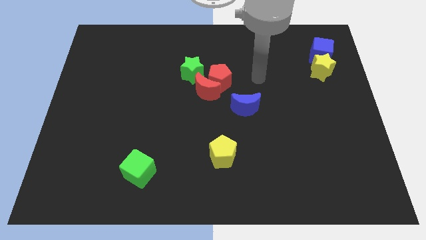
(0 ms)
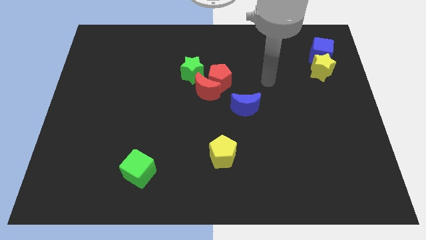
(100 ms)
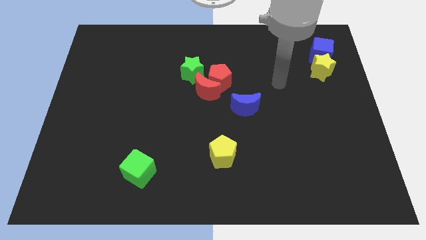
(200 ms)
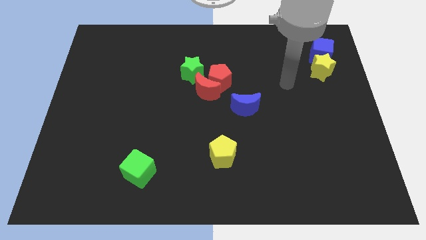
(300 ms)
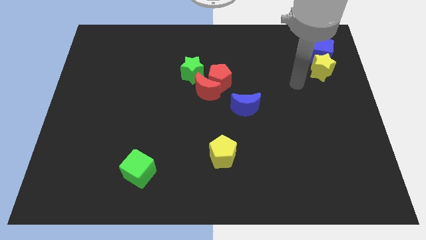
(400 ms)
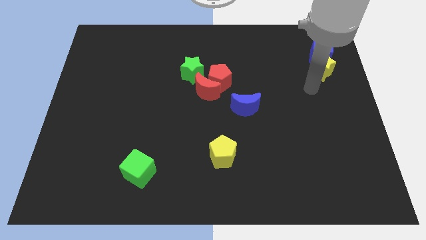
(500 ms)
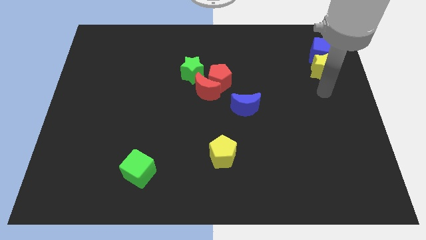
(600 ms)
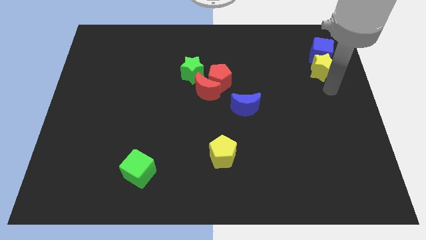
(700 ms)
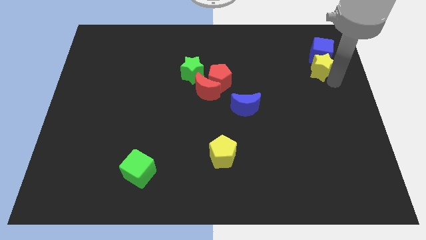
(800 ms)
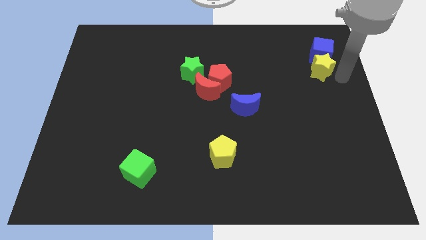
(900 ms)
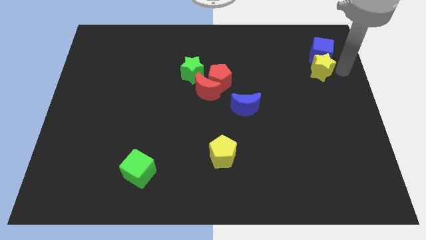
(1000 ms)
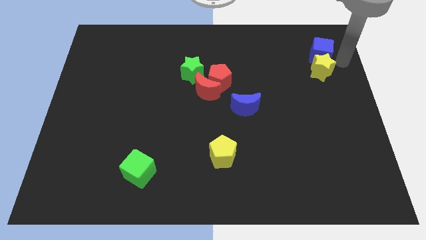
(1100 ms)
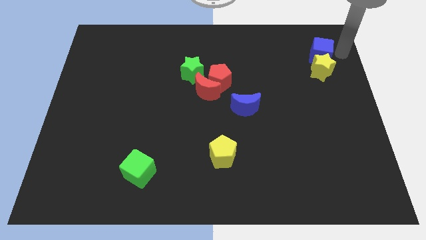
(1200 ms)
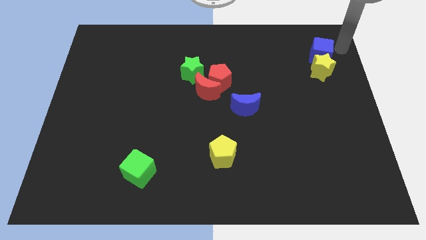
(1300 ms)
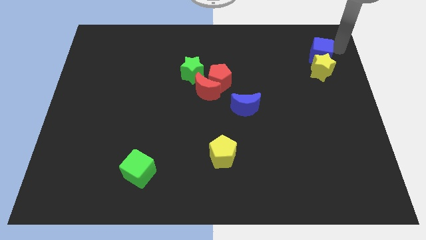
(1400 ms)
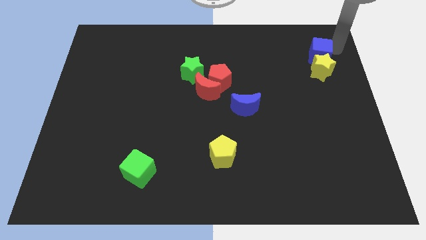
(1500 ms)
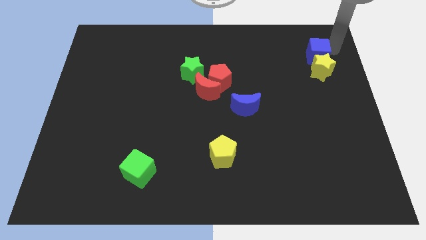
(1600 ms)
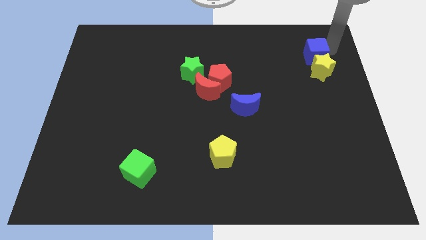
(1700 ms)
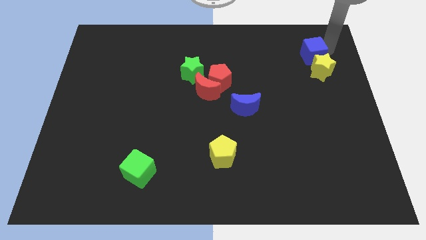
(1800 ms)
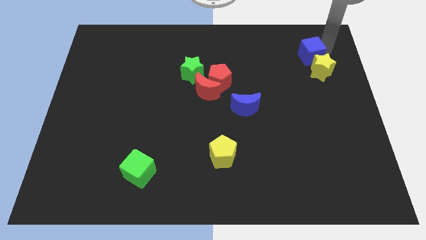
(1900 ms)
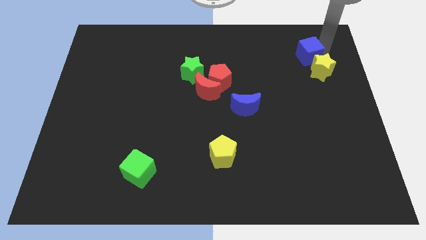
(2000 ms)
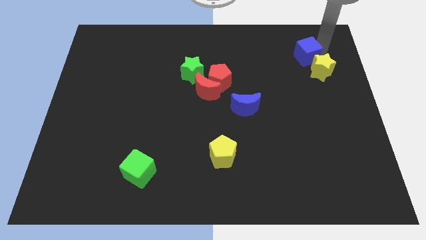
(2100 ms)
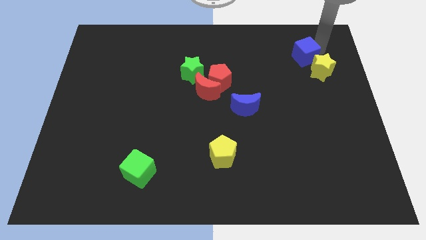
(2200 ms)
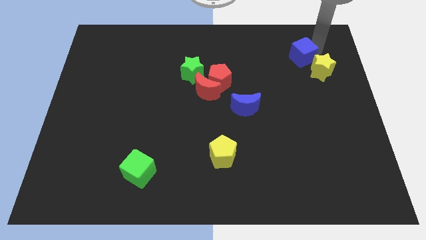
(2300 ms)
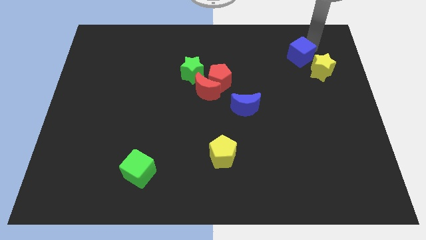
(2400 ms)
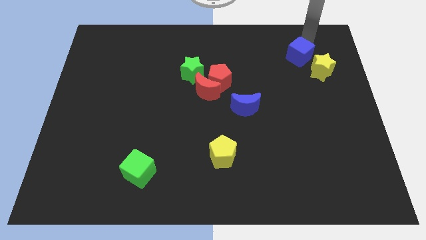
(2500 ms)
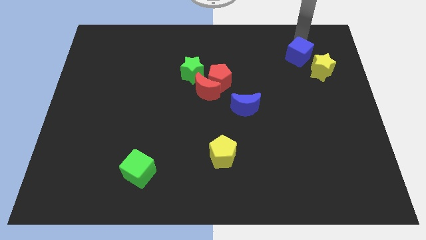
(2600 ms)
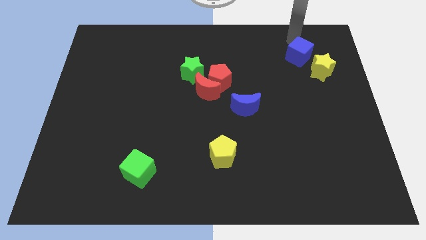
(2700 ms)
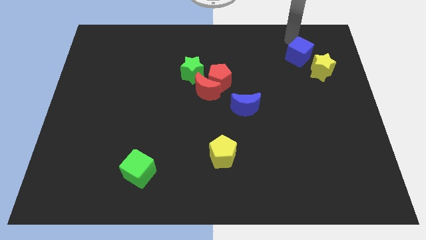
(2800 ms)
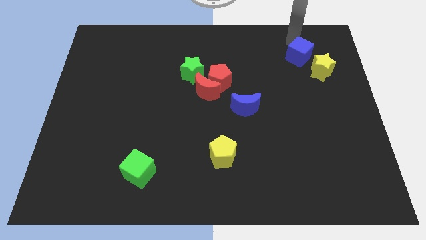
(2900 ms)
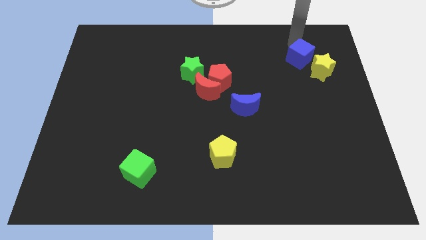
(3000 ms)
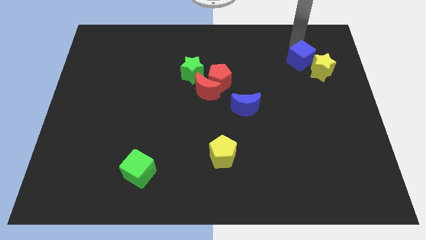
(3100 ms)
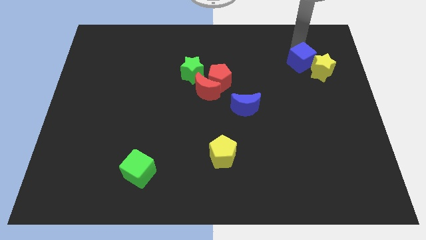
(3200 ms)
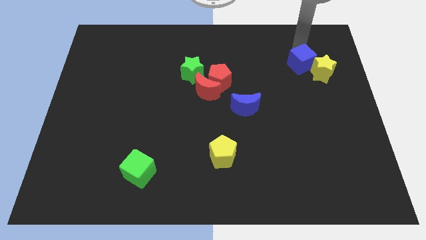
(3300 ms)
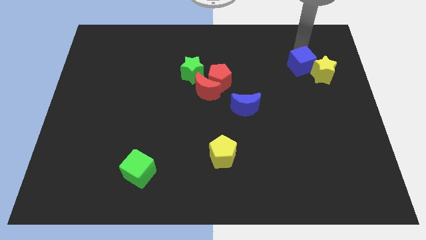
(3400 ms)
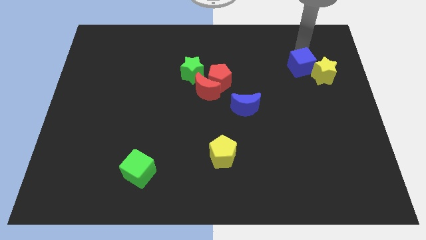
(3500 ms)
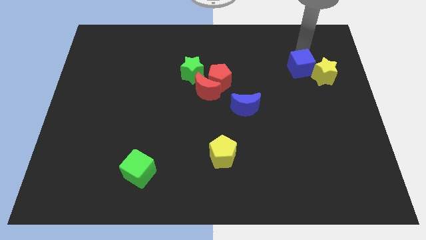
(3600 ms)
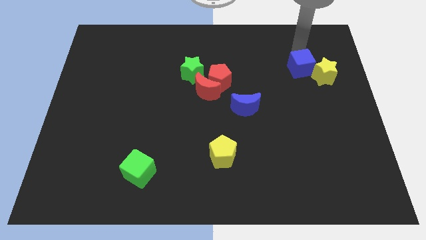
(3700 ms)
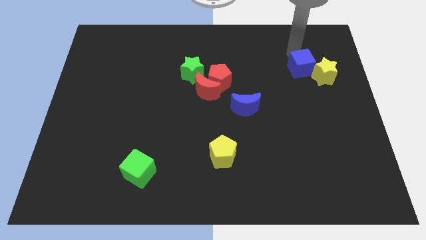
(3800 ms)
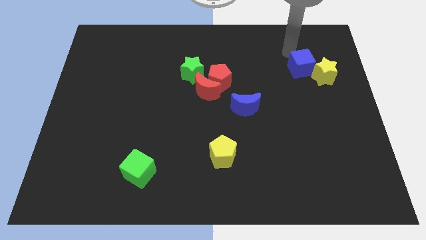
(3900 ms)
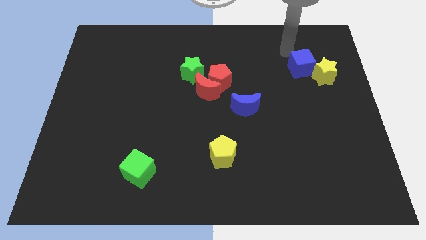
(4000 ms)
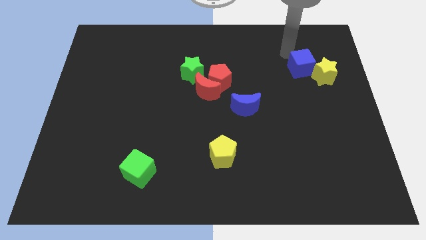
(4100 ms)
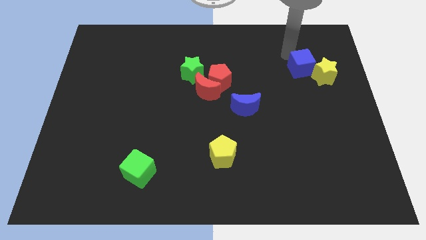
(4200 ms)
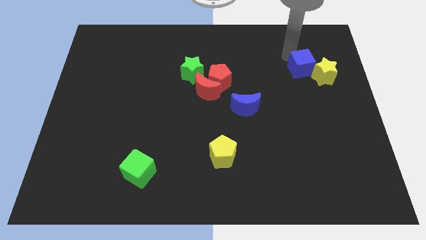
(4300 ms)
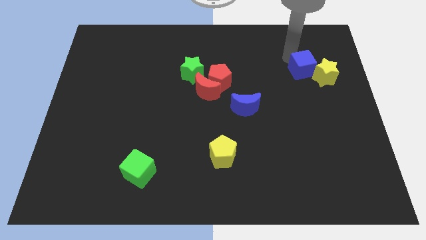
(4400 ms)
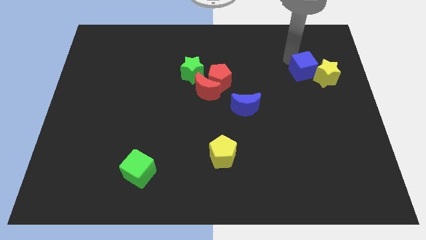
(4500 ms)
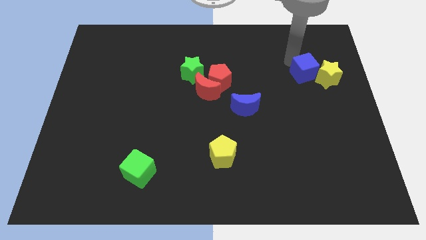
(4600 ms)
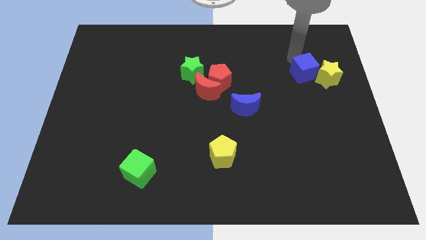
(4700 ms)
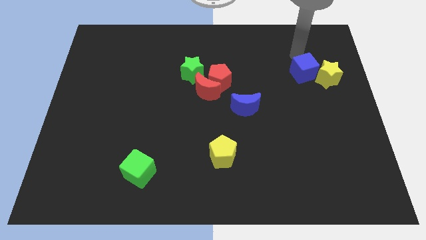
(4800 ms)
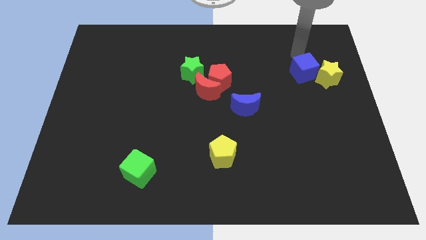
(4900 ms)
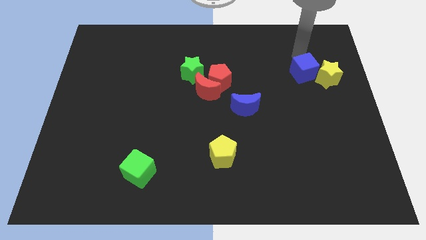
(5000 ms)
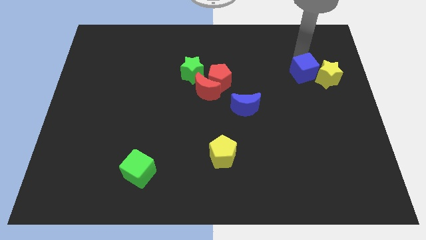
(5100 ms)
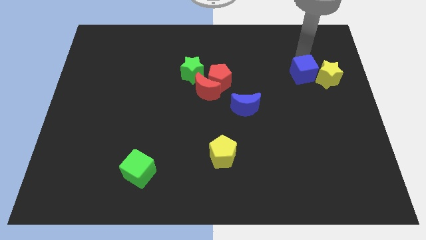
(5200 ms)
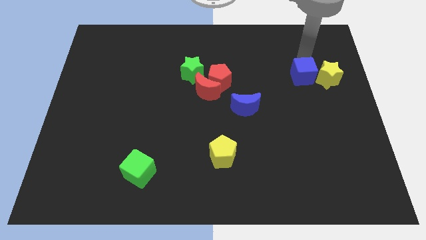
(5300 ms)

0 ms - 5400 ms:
put the blue cube diagonally down and to the left of the yellow star

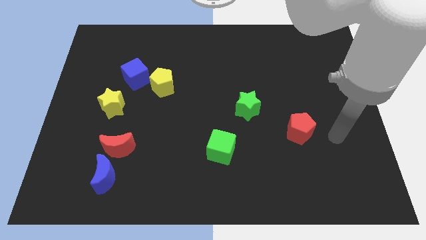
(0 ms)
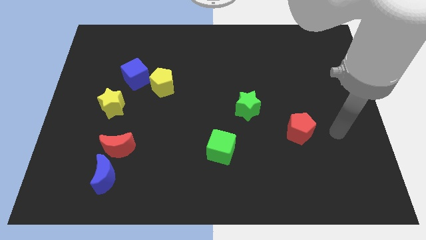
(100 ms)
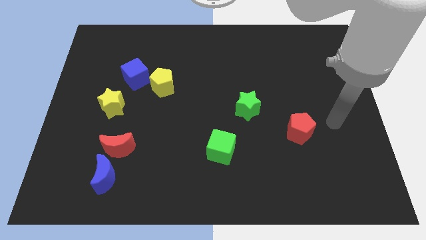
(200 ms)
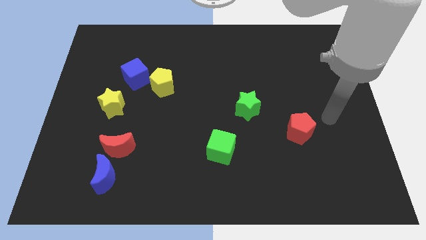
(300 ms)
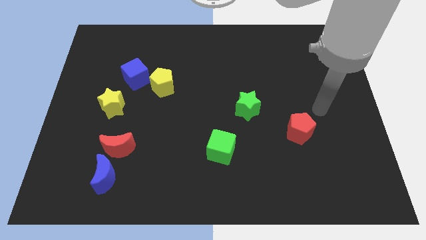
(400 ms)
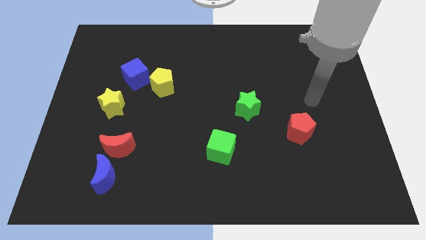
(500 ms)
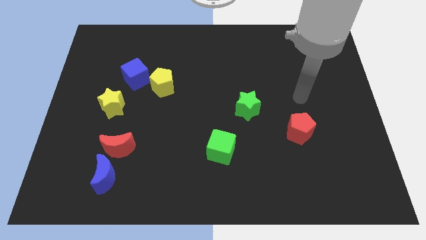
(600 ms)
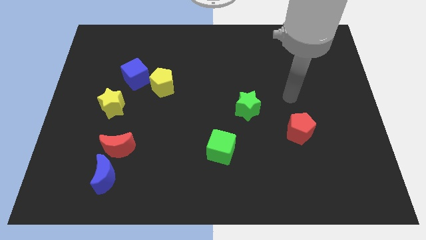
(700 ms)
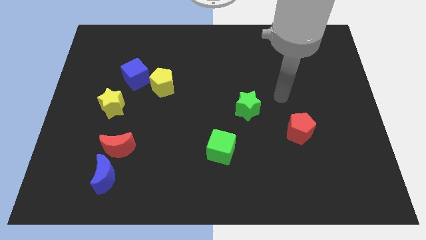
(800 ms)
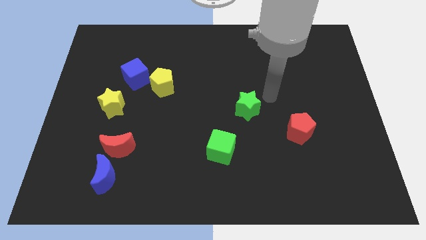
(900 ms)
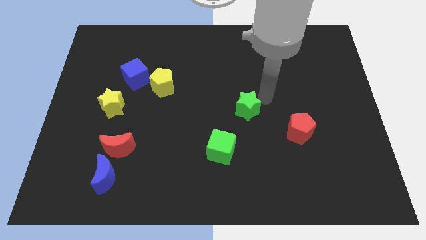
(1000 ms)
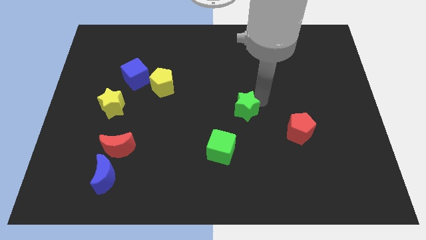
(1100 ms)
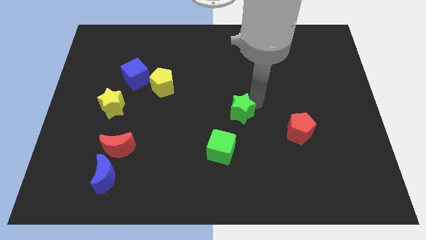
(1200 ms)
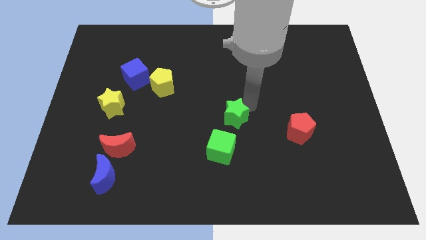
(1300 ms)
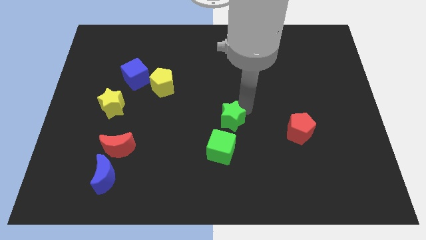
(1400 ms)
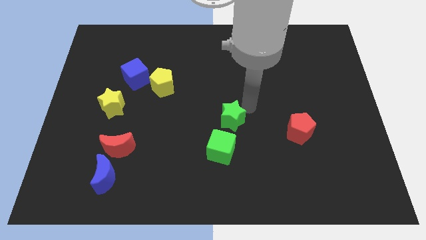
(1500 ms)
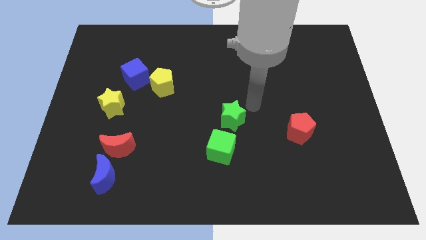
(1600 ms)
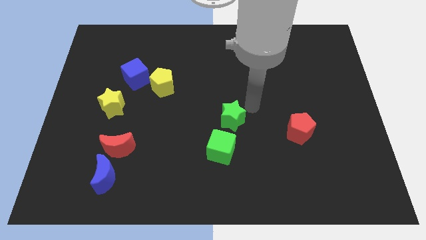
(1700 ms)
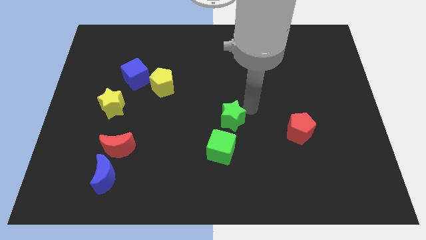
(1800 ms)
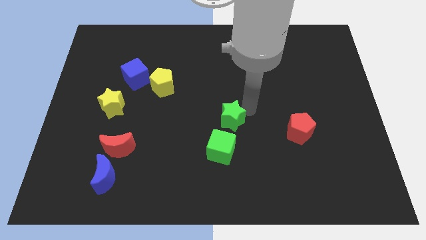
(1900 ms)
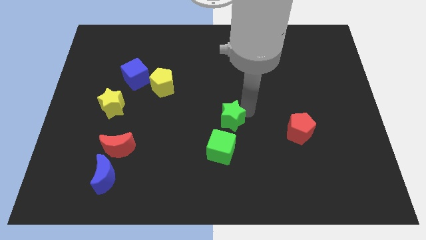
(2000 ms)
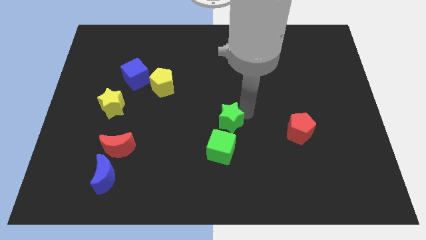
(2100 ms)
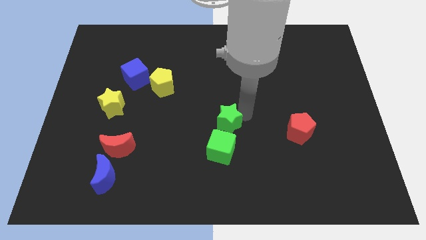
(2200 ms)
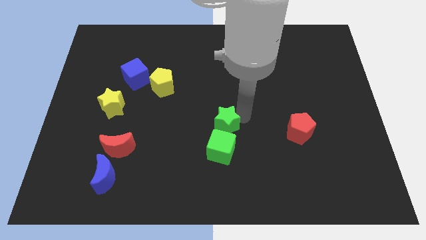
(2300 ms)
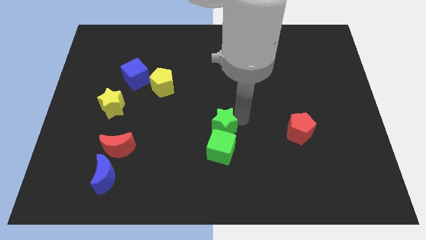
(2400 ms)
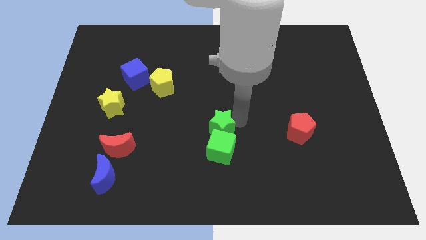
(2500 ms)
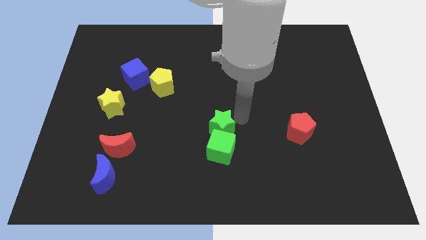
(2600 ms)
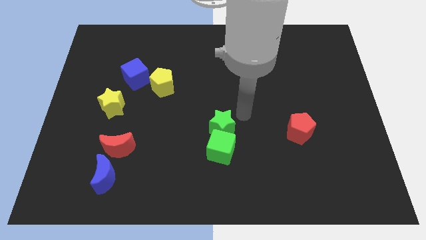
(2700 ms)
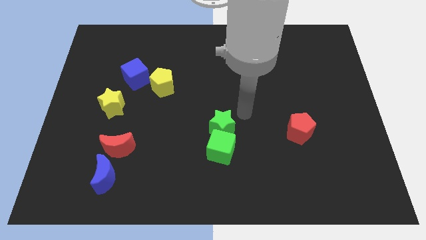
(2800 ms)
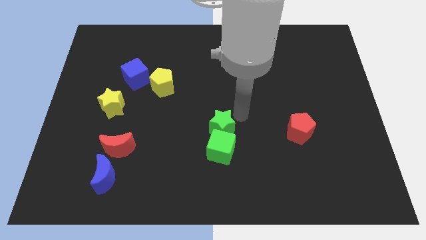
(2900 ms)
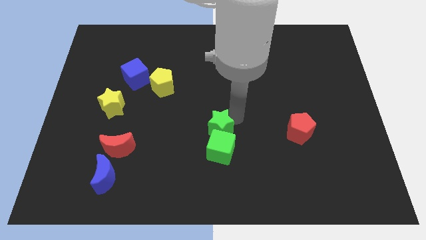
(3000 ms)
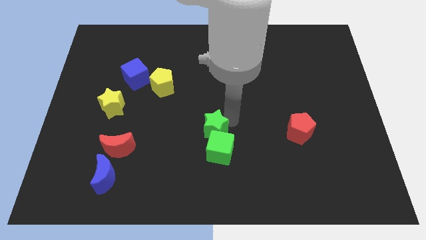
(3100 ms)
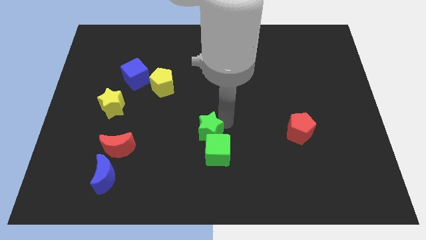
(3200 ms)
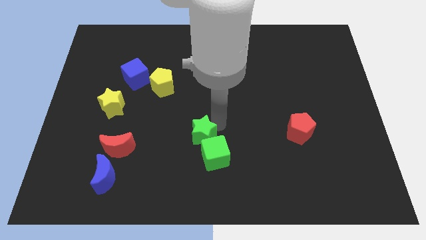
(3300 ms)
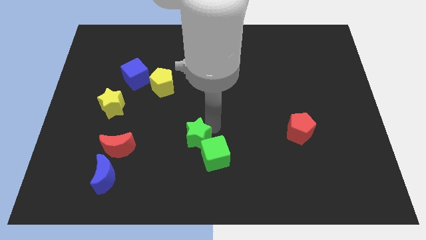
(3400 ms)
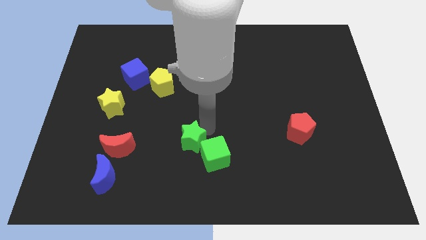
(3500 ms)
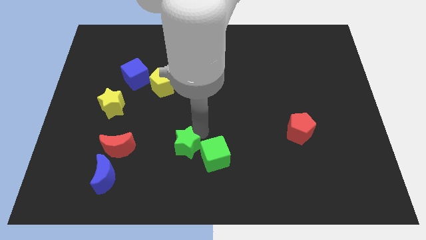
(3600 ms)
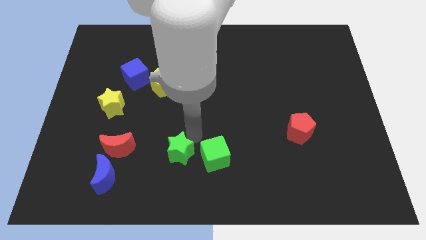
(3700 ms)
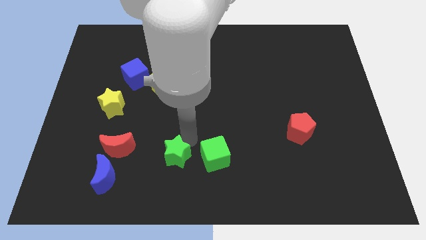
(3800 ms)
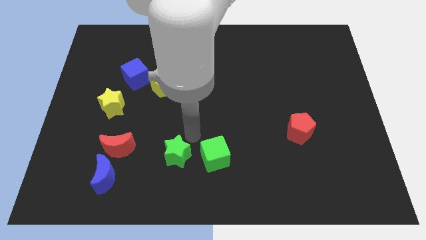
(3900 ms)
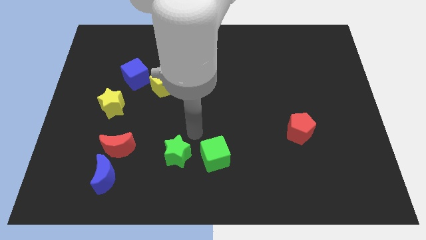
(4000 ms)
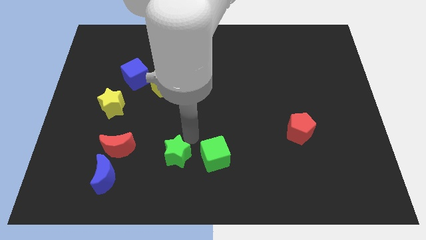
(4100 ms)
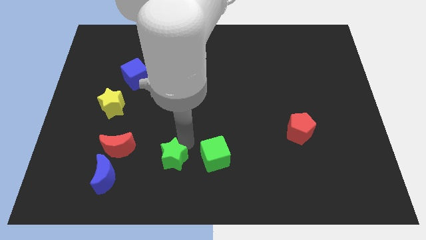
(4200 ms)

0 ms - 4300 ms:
put the green star right of the blue moon
